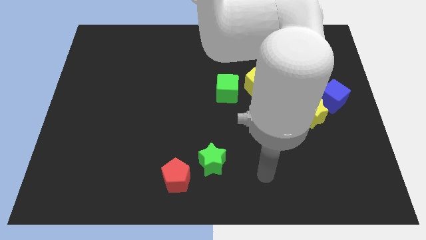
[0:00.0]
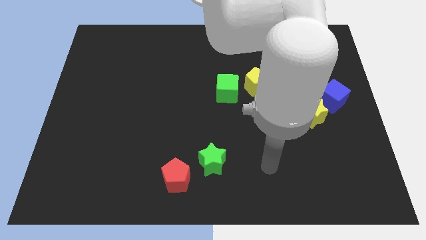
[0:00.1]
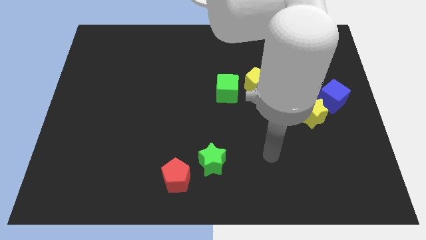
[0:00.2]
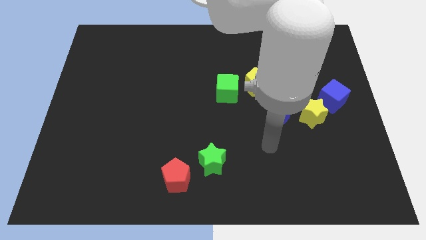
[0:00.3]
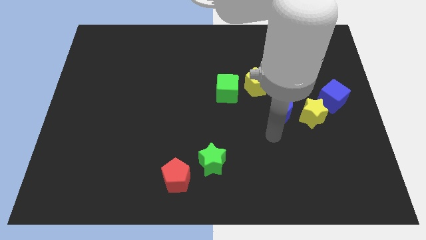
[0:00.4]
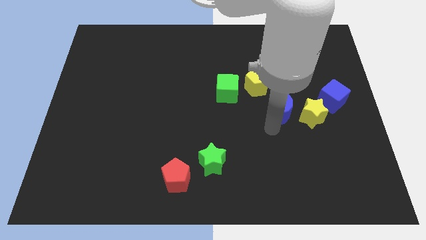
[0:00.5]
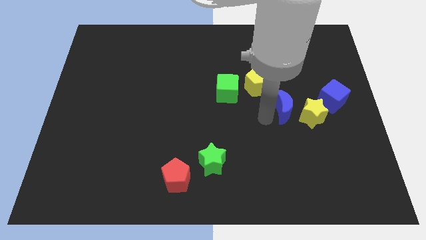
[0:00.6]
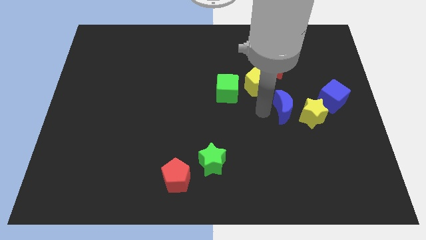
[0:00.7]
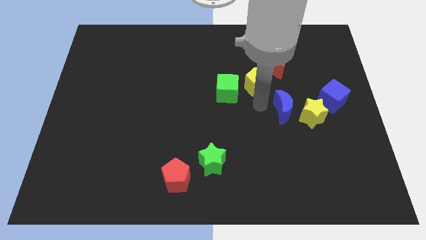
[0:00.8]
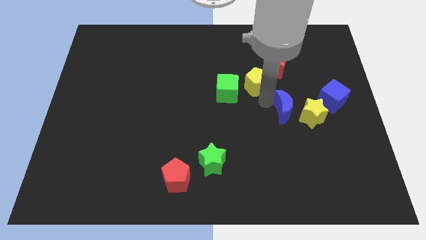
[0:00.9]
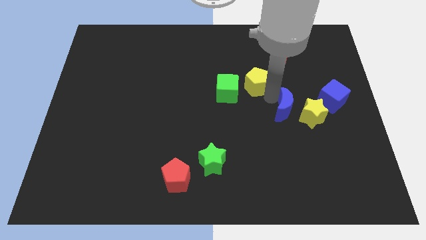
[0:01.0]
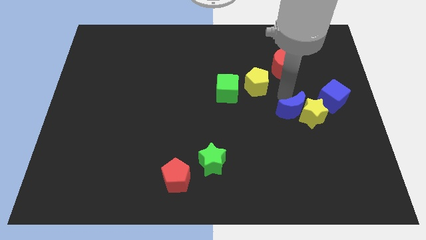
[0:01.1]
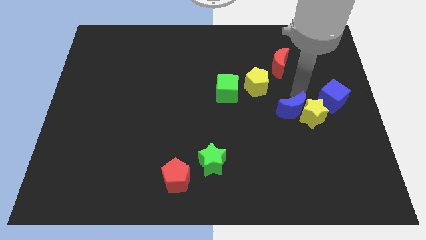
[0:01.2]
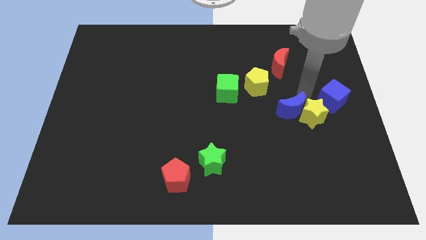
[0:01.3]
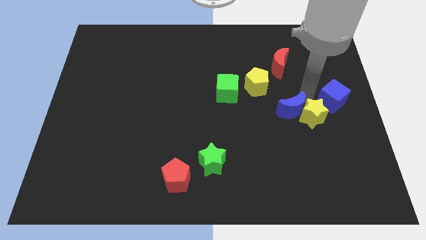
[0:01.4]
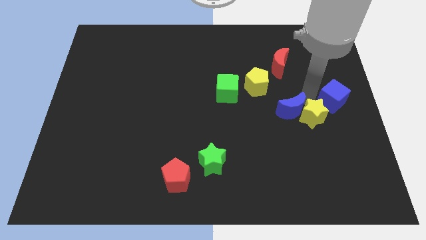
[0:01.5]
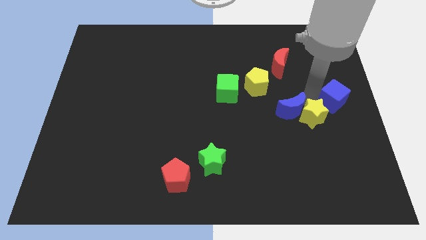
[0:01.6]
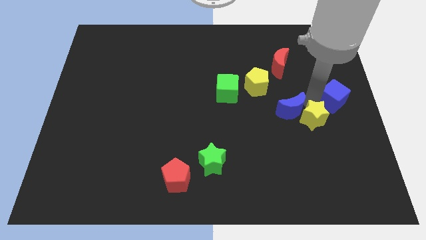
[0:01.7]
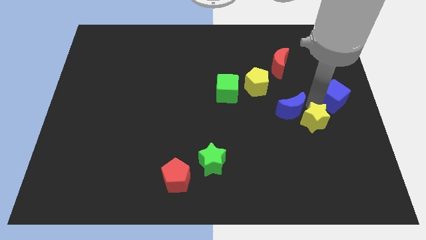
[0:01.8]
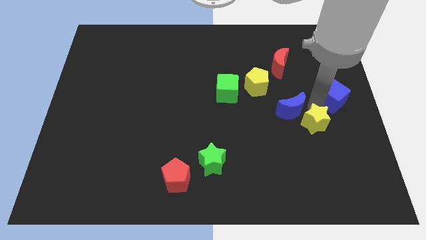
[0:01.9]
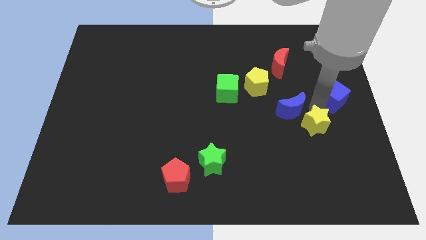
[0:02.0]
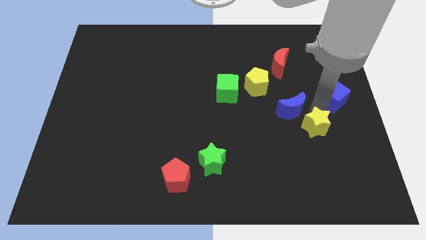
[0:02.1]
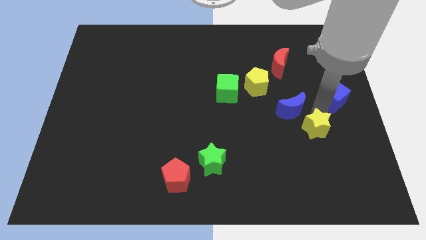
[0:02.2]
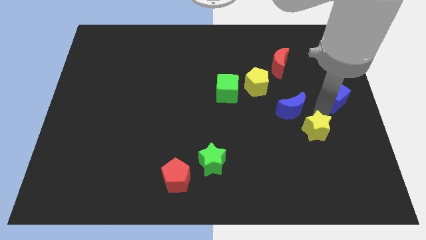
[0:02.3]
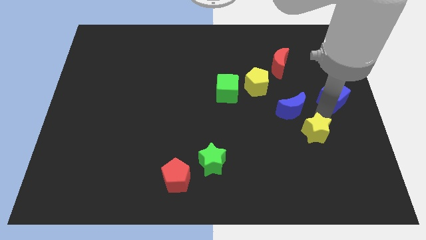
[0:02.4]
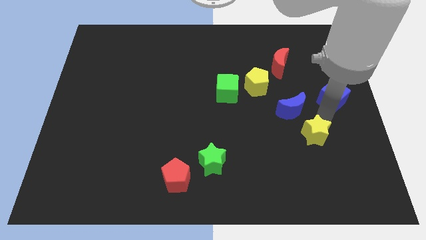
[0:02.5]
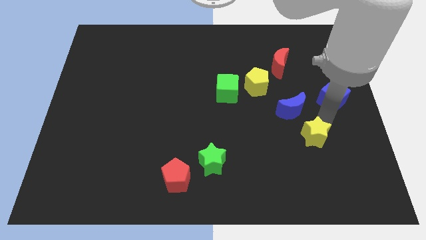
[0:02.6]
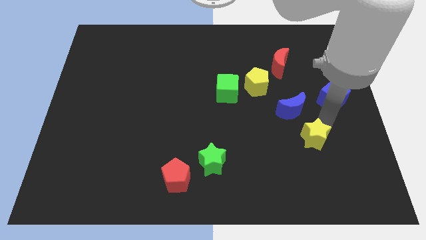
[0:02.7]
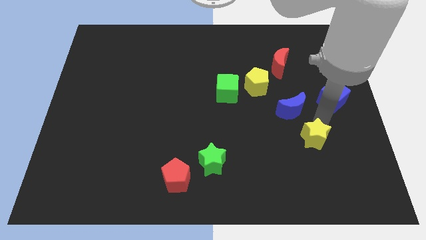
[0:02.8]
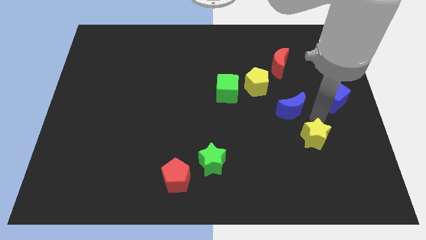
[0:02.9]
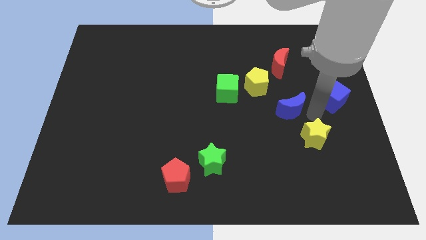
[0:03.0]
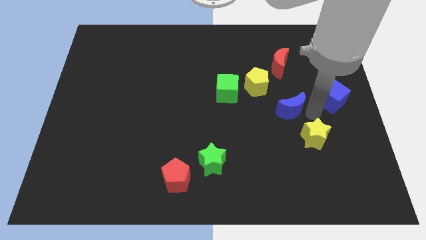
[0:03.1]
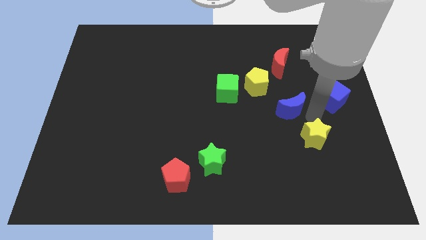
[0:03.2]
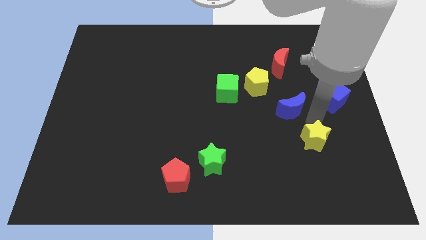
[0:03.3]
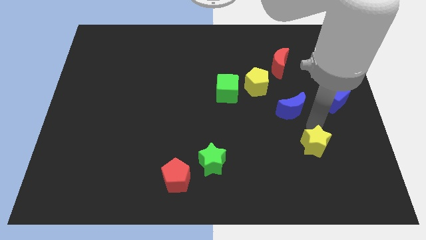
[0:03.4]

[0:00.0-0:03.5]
move the yellow star away from the blue moon and blue cube

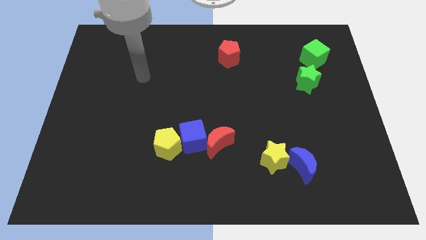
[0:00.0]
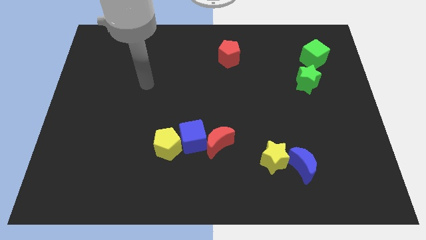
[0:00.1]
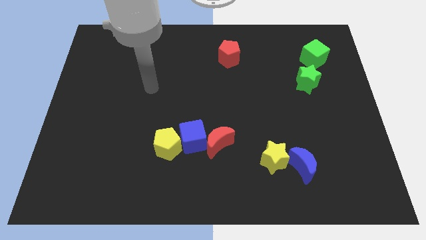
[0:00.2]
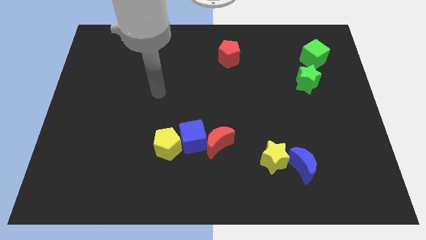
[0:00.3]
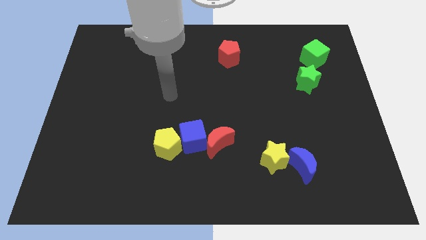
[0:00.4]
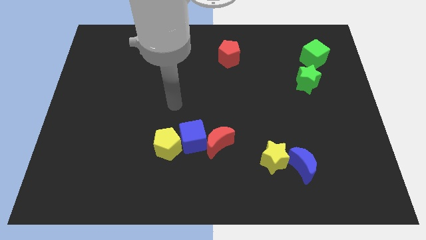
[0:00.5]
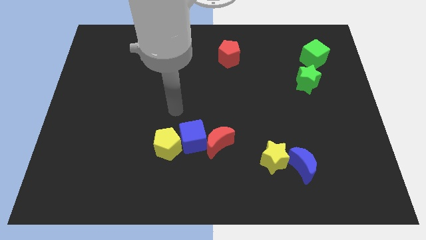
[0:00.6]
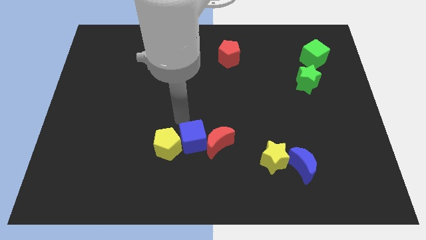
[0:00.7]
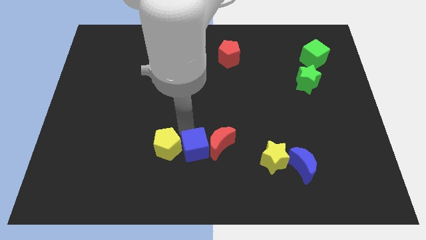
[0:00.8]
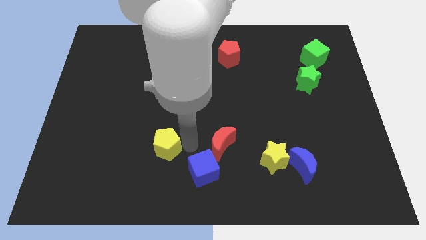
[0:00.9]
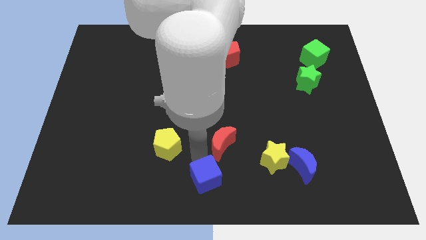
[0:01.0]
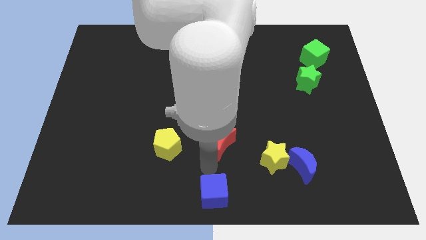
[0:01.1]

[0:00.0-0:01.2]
pull the red moon apart from the blue cube

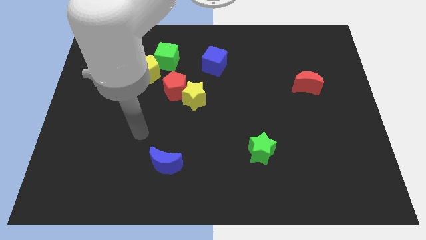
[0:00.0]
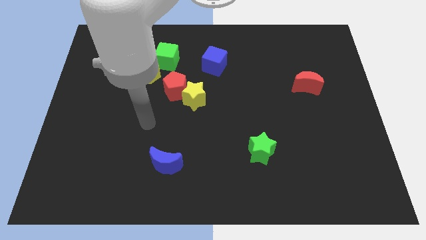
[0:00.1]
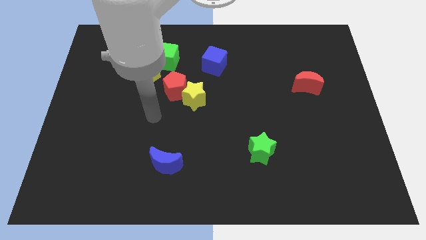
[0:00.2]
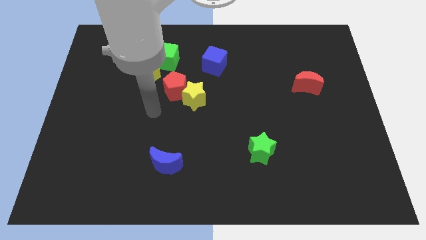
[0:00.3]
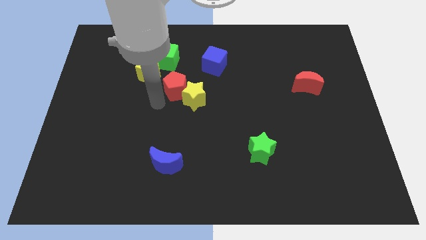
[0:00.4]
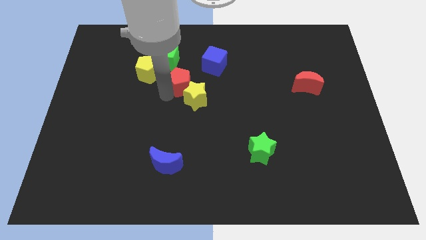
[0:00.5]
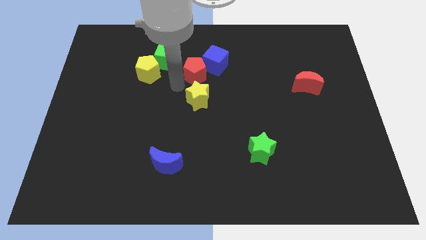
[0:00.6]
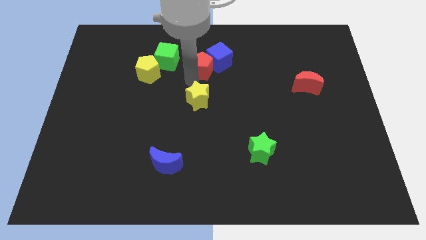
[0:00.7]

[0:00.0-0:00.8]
pull the yellow star apart from the red pentagon

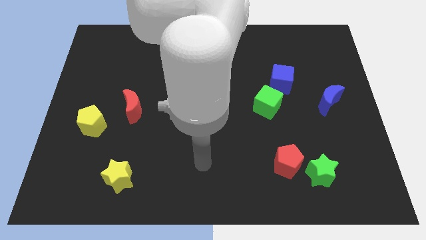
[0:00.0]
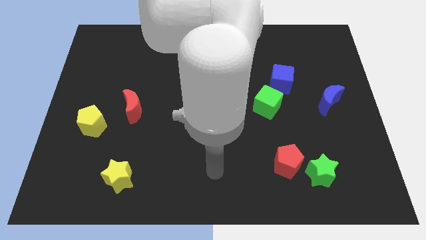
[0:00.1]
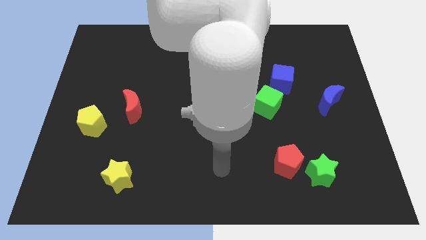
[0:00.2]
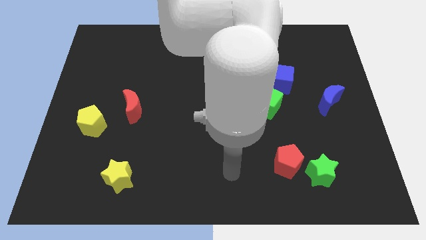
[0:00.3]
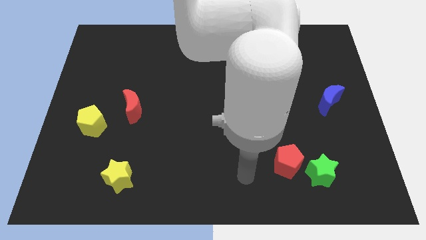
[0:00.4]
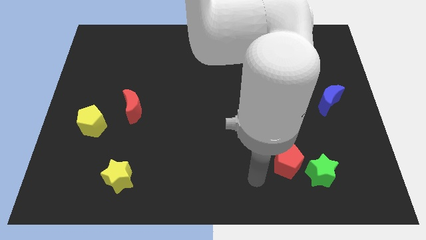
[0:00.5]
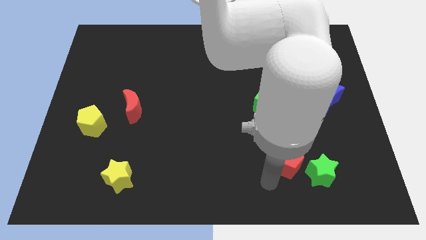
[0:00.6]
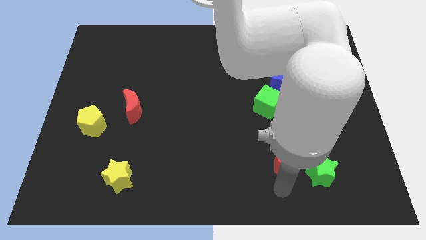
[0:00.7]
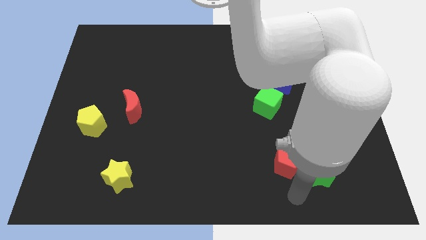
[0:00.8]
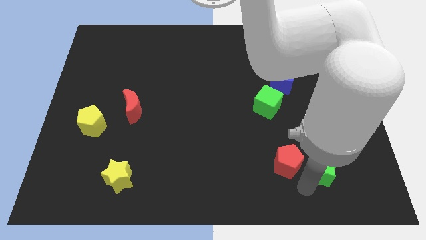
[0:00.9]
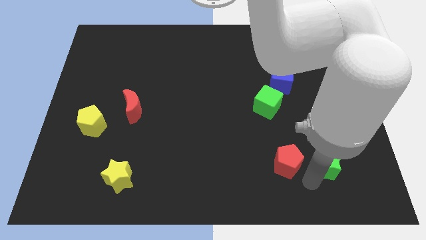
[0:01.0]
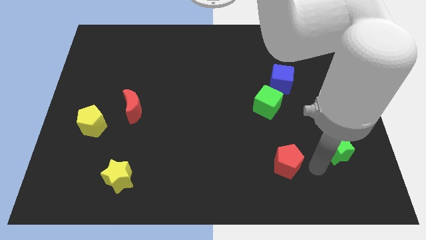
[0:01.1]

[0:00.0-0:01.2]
separate the red pentagon from the green star

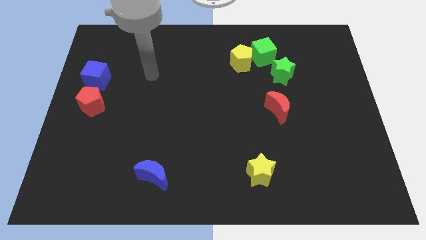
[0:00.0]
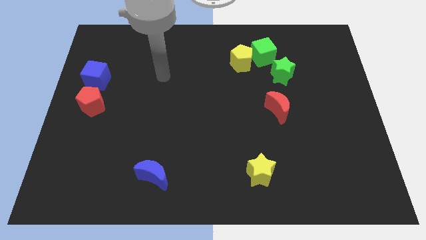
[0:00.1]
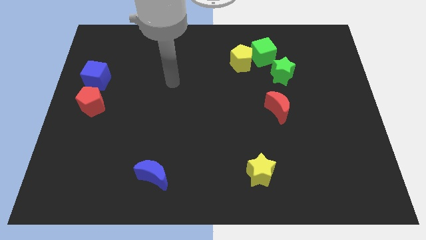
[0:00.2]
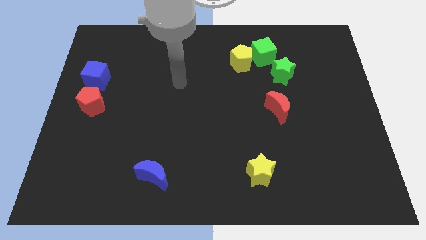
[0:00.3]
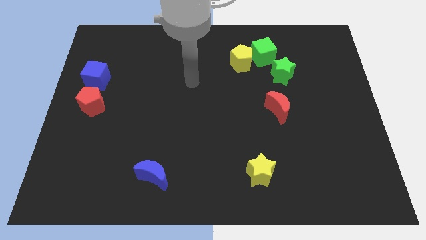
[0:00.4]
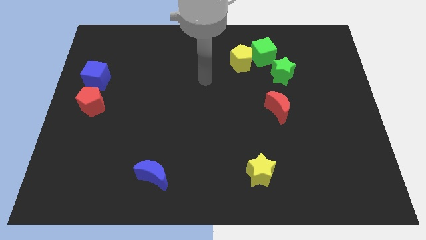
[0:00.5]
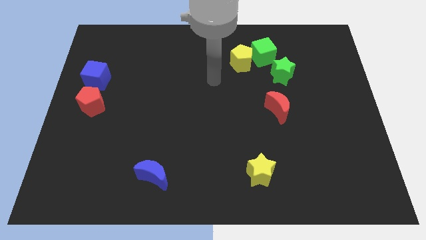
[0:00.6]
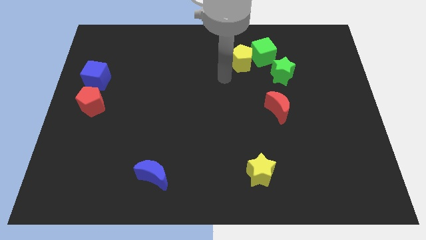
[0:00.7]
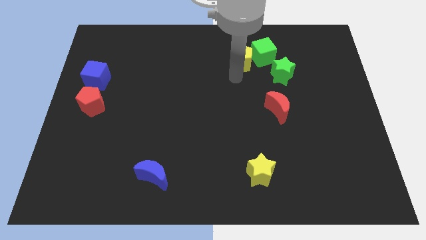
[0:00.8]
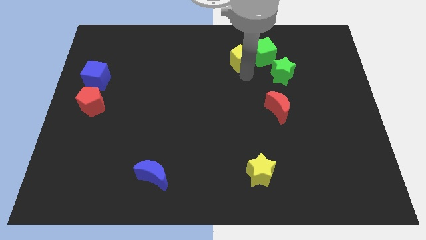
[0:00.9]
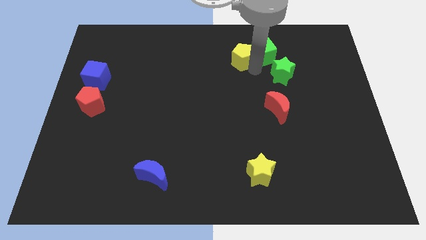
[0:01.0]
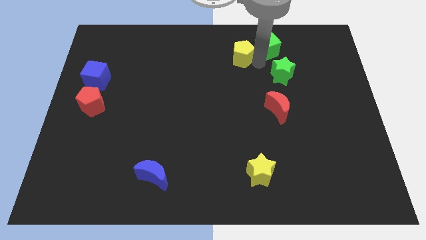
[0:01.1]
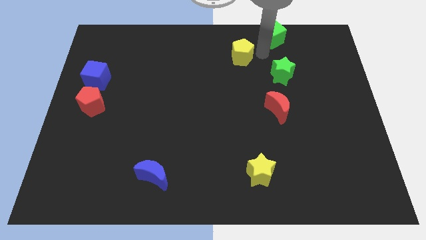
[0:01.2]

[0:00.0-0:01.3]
separate the yellow pentagon from the green cube

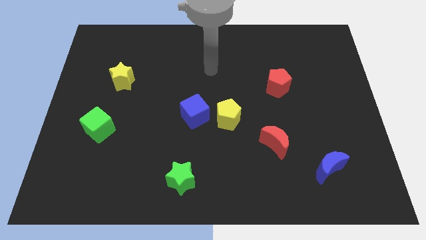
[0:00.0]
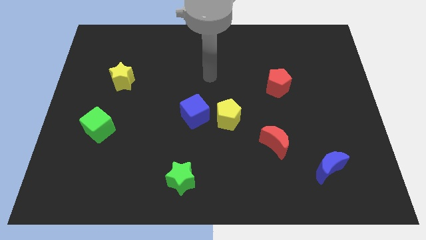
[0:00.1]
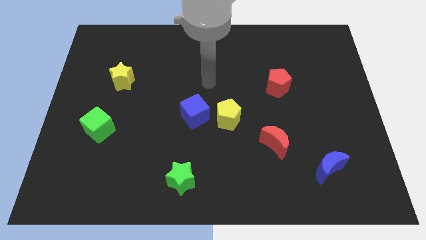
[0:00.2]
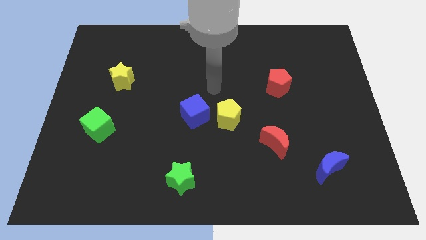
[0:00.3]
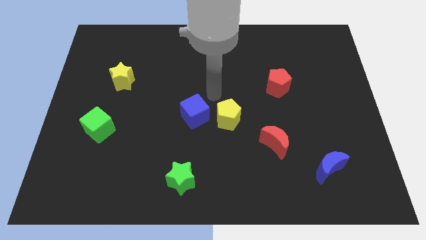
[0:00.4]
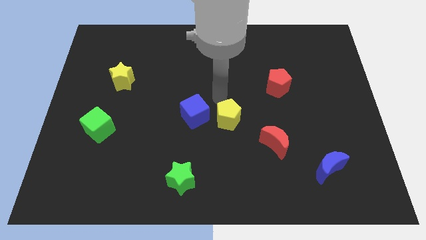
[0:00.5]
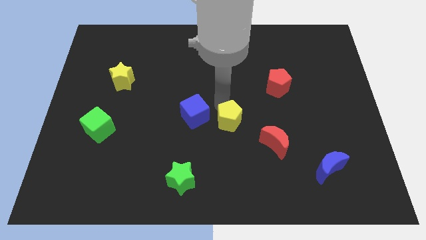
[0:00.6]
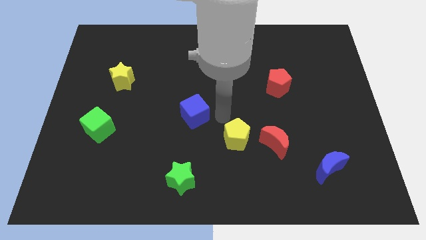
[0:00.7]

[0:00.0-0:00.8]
pull the blue cube apart from the yellow pentagon

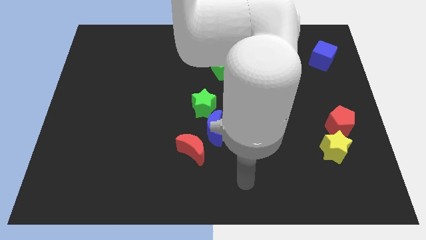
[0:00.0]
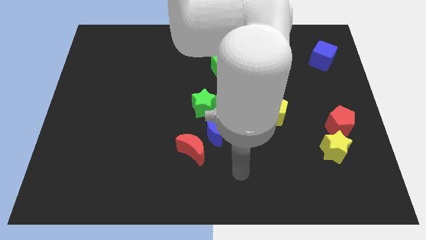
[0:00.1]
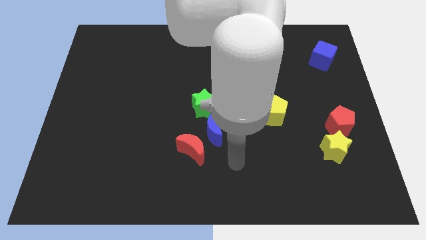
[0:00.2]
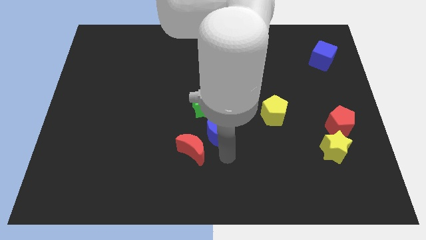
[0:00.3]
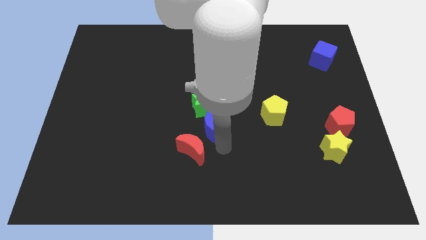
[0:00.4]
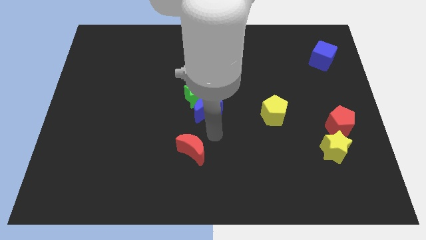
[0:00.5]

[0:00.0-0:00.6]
move the red moon away from the blue moon
